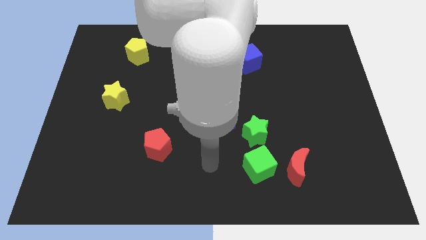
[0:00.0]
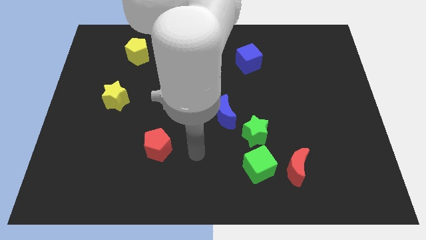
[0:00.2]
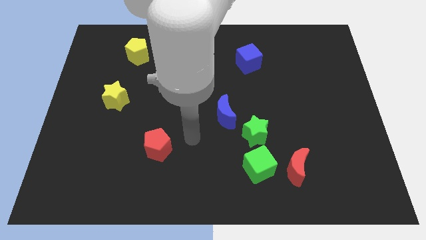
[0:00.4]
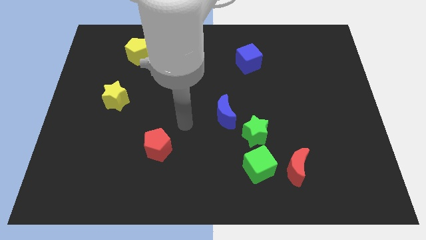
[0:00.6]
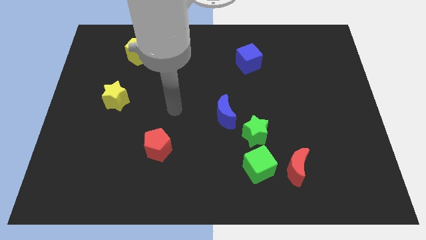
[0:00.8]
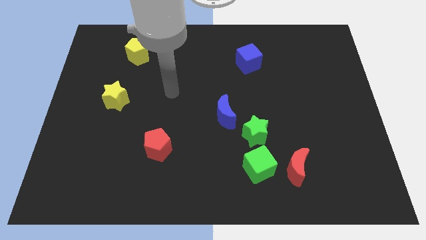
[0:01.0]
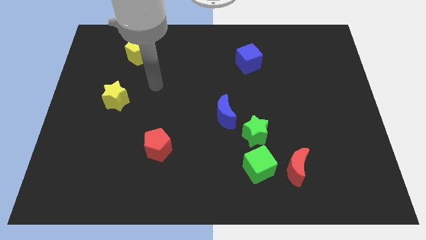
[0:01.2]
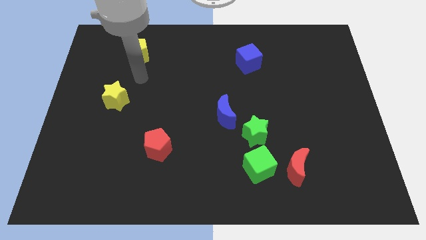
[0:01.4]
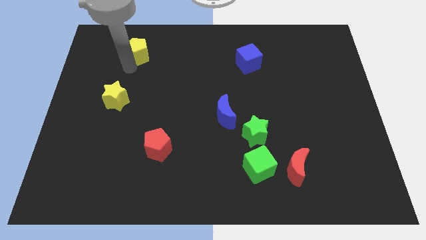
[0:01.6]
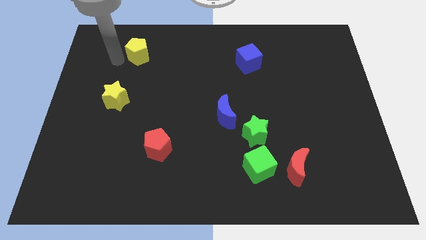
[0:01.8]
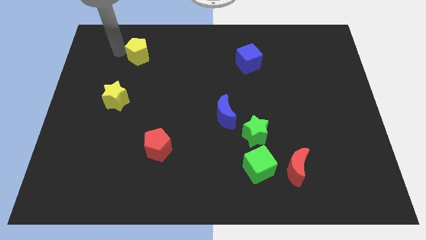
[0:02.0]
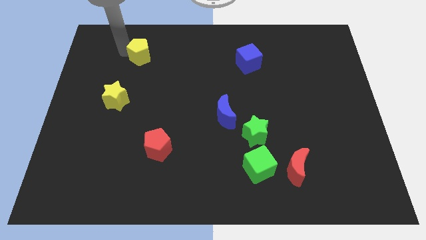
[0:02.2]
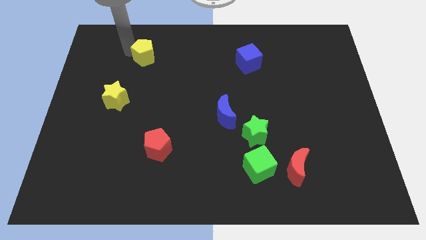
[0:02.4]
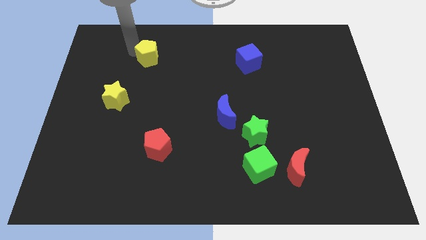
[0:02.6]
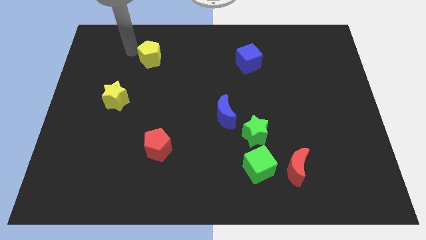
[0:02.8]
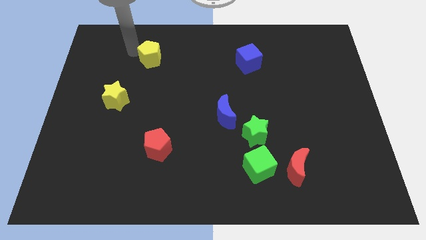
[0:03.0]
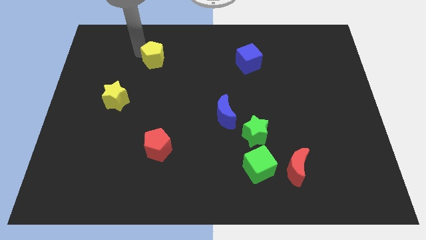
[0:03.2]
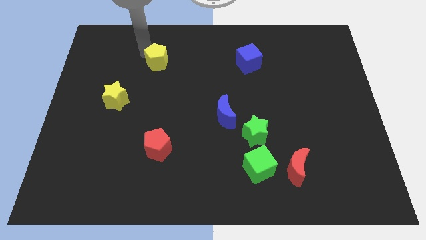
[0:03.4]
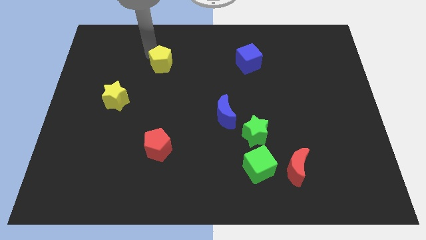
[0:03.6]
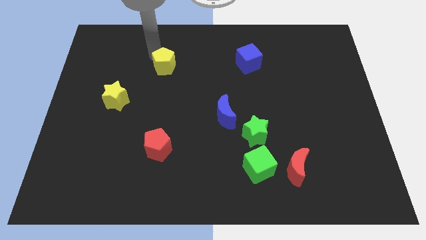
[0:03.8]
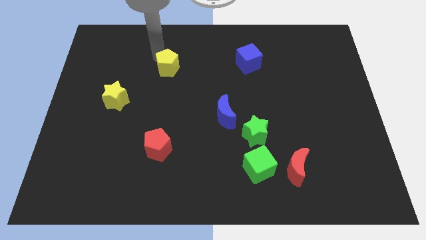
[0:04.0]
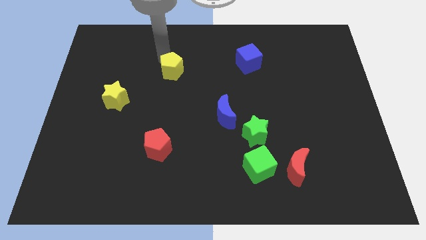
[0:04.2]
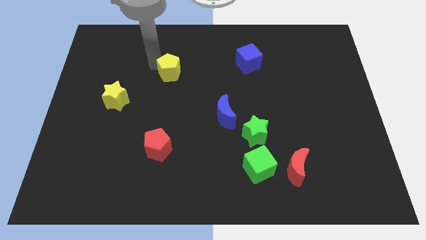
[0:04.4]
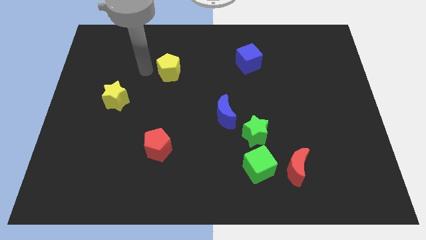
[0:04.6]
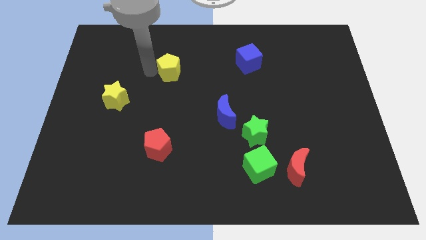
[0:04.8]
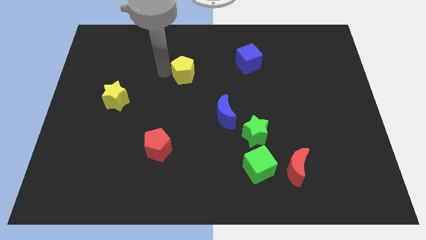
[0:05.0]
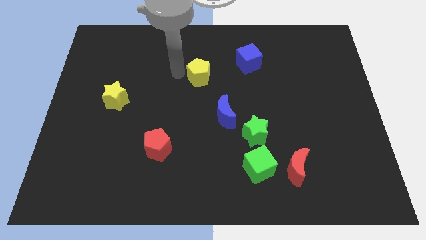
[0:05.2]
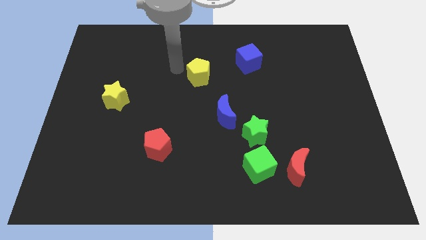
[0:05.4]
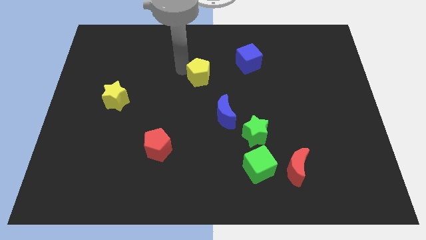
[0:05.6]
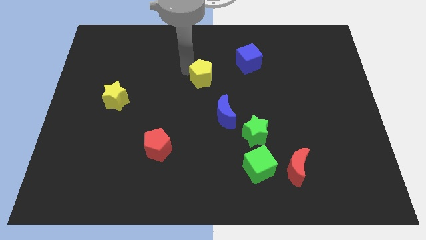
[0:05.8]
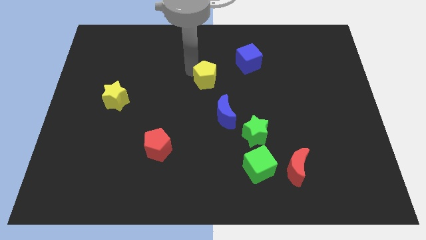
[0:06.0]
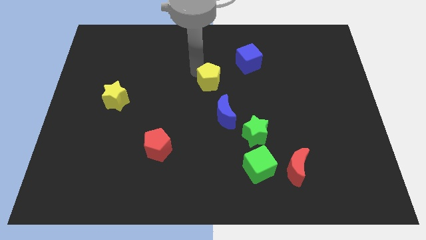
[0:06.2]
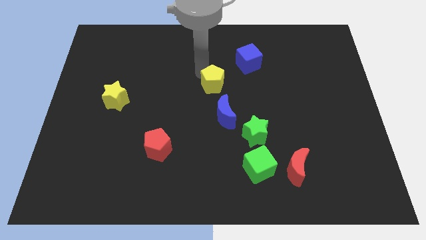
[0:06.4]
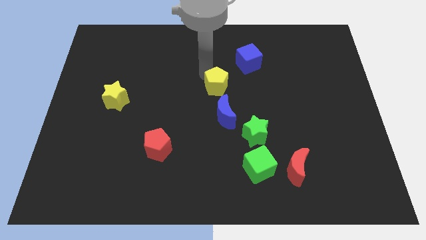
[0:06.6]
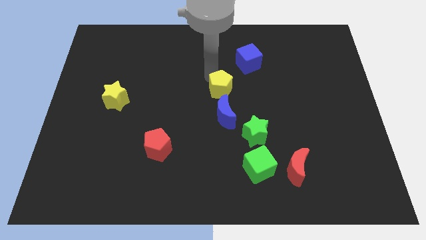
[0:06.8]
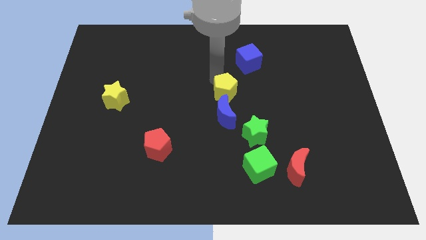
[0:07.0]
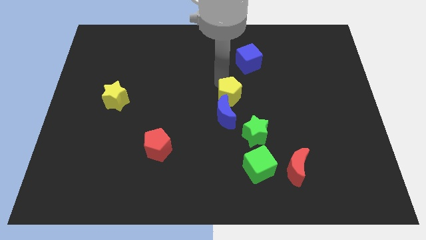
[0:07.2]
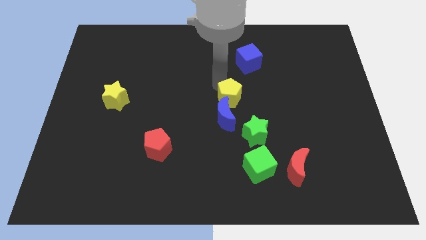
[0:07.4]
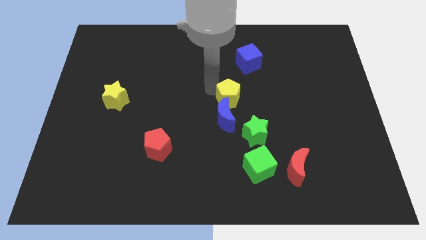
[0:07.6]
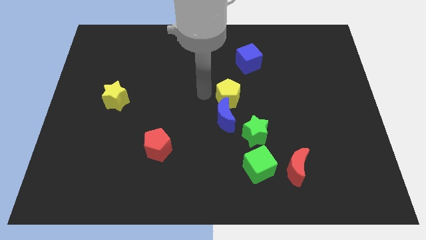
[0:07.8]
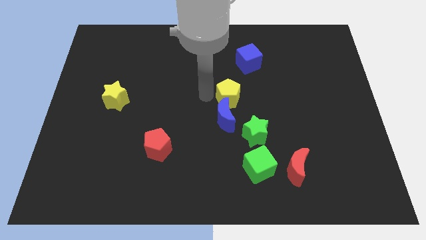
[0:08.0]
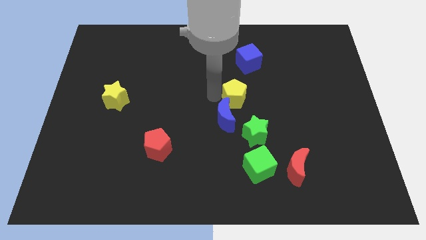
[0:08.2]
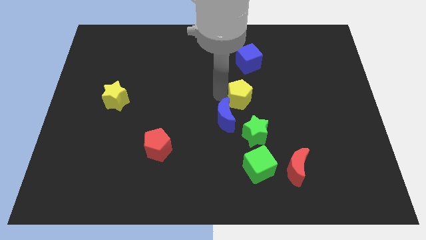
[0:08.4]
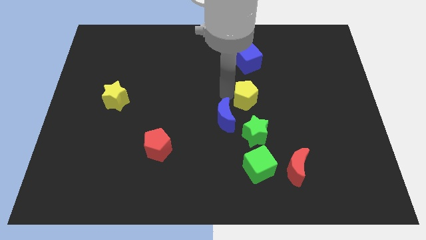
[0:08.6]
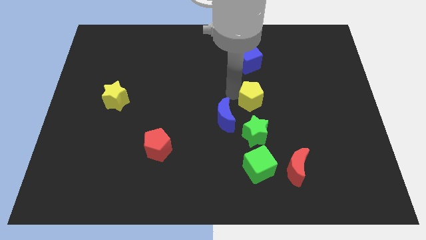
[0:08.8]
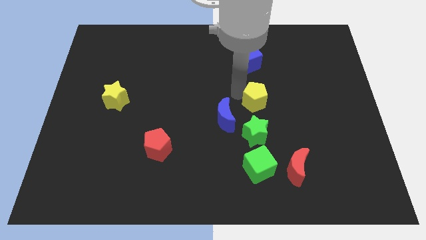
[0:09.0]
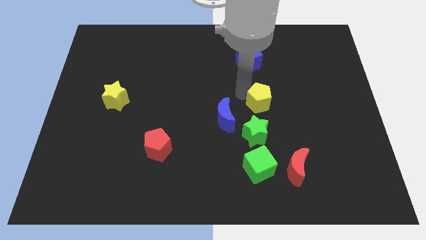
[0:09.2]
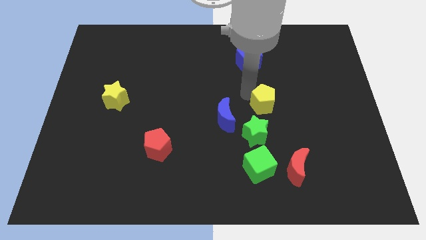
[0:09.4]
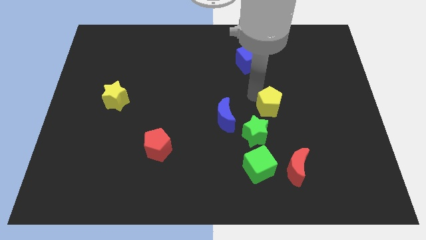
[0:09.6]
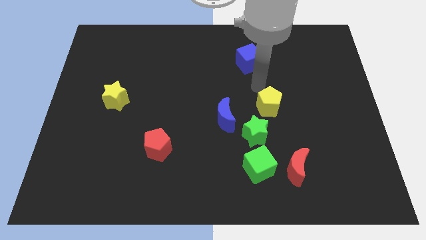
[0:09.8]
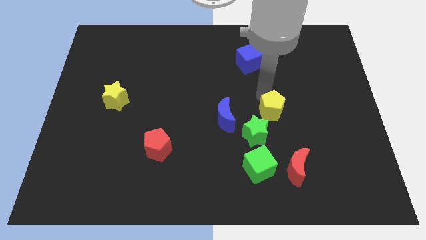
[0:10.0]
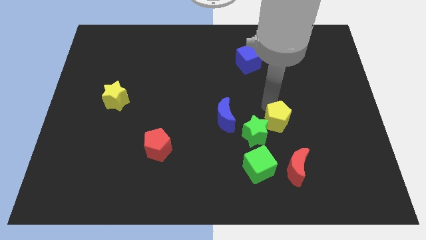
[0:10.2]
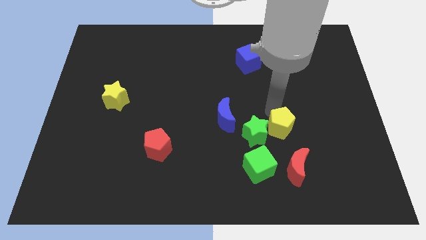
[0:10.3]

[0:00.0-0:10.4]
put the yellow pentagon to the top right side of the green cube

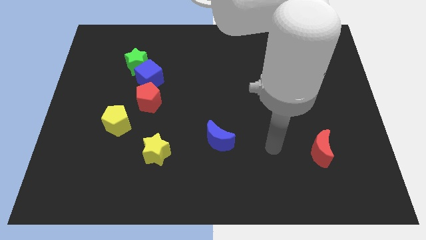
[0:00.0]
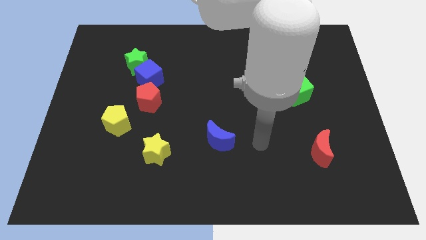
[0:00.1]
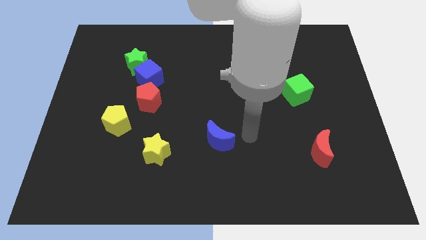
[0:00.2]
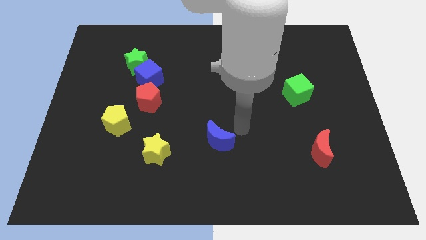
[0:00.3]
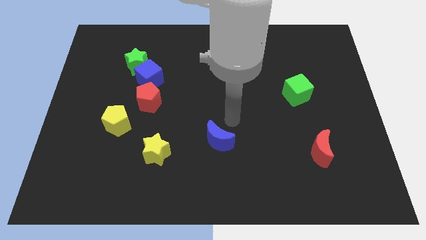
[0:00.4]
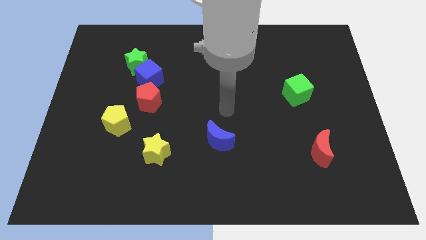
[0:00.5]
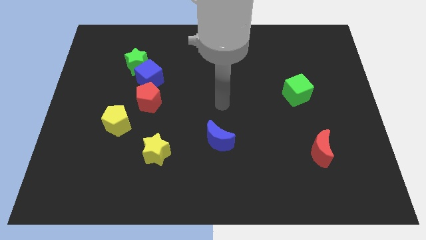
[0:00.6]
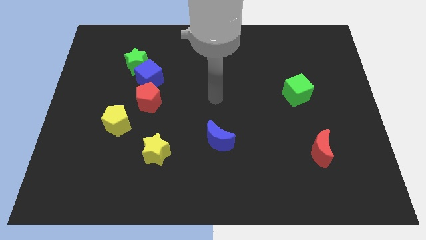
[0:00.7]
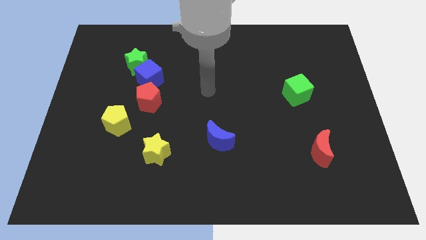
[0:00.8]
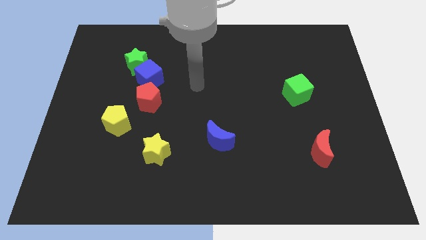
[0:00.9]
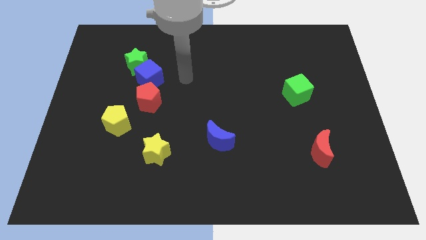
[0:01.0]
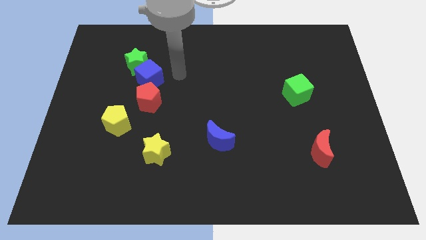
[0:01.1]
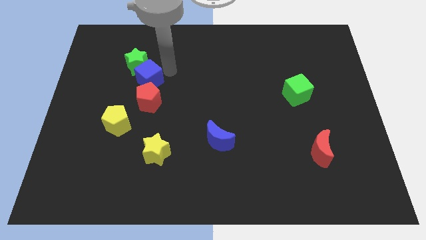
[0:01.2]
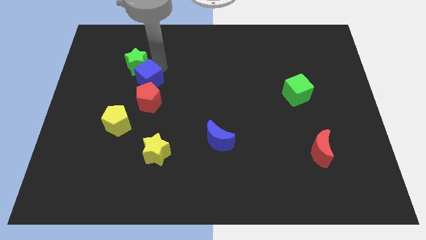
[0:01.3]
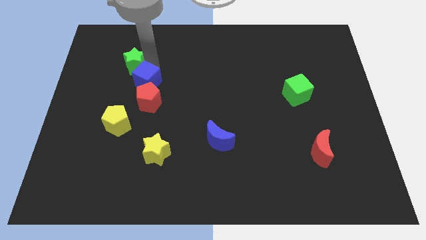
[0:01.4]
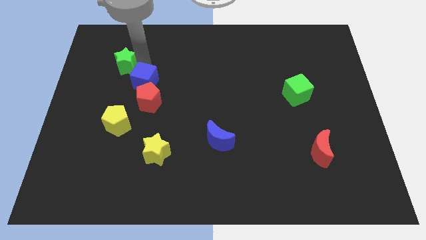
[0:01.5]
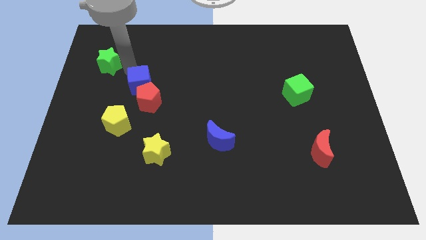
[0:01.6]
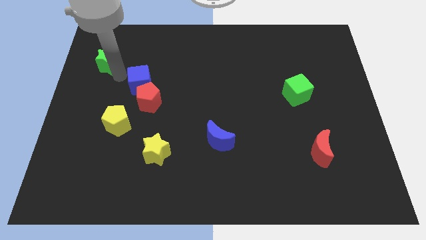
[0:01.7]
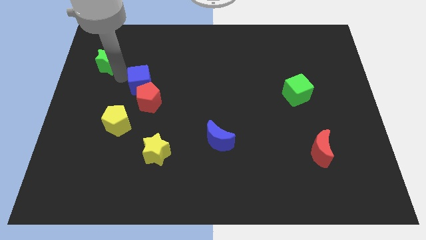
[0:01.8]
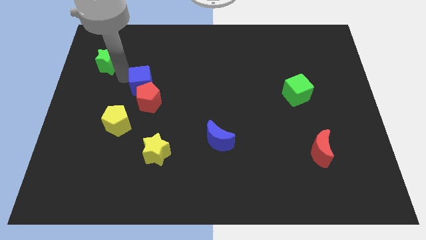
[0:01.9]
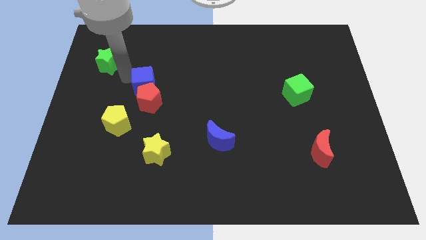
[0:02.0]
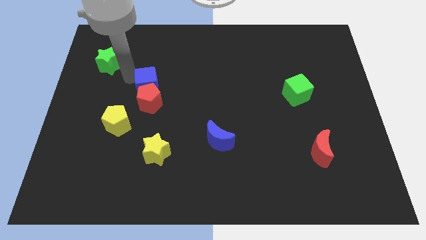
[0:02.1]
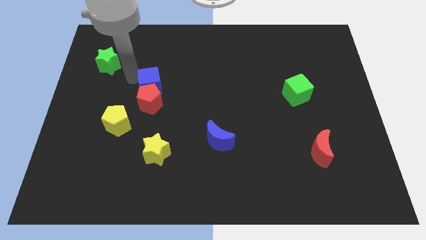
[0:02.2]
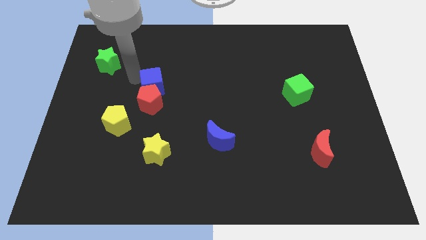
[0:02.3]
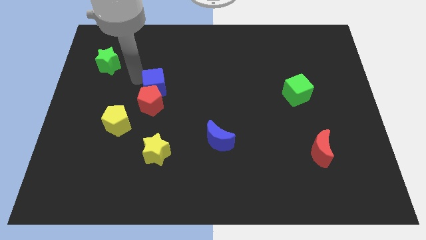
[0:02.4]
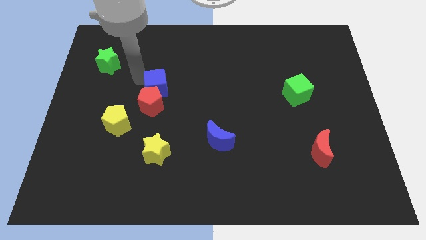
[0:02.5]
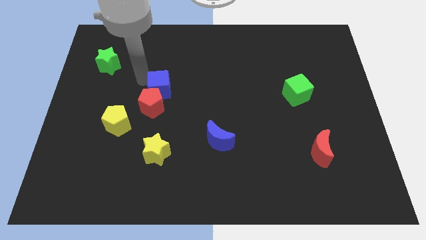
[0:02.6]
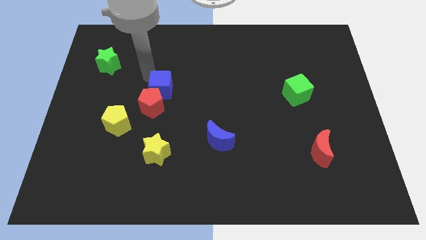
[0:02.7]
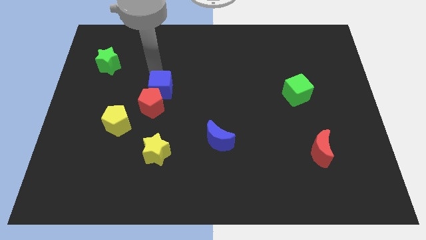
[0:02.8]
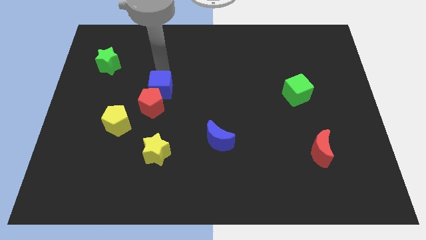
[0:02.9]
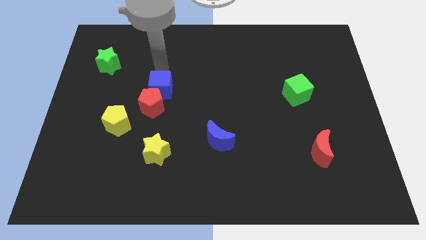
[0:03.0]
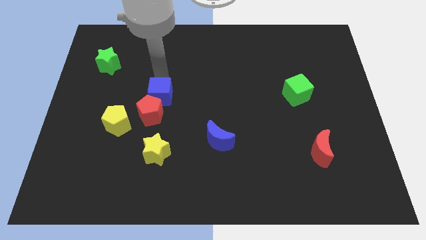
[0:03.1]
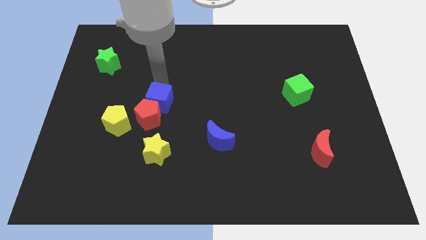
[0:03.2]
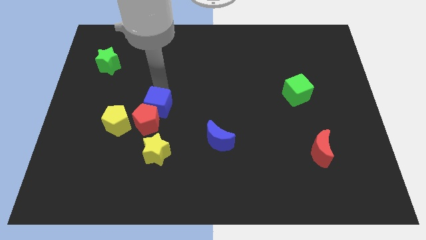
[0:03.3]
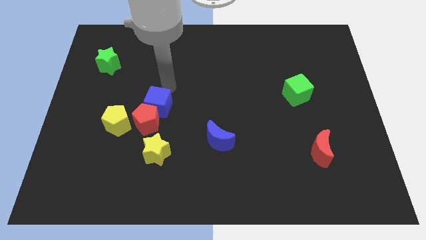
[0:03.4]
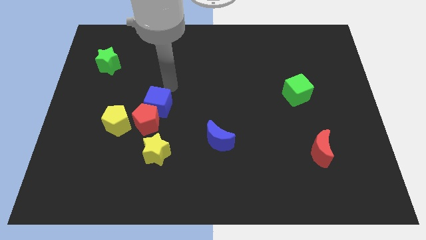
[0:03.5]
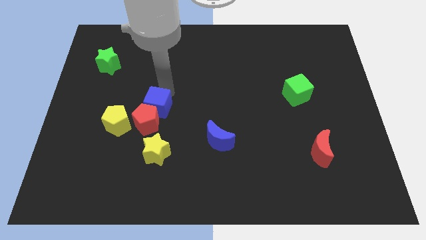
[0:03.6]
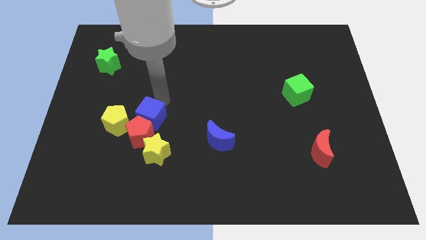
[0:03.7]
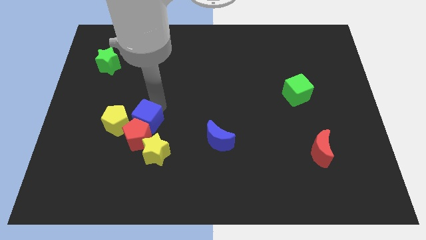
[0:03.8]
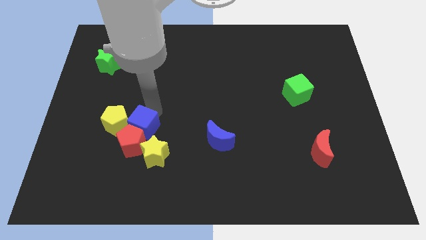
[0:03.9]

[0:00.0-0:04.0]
move the blue cube diagonally down and to the right of the yellow pentagon
